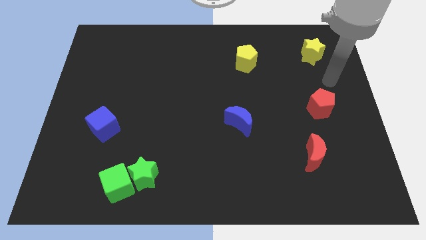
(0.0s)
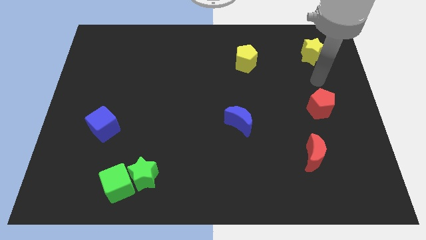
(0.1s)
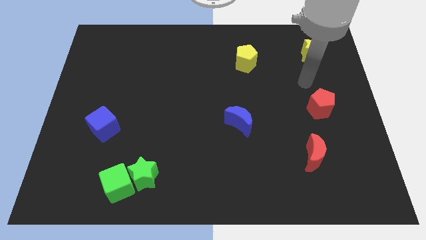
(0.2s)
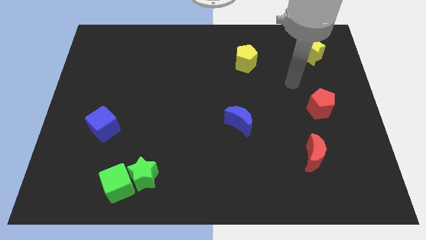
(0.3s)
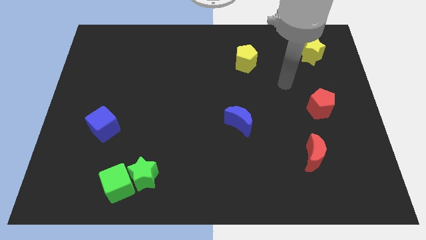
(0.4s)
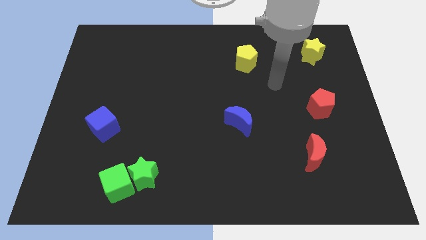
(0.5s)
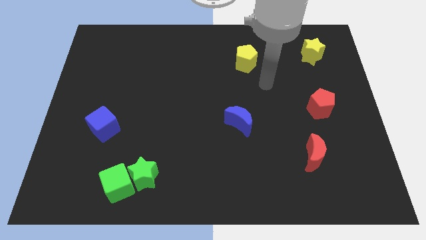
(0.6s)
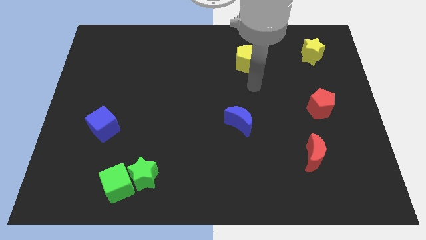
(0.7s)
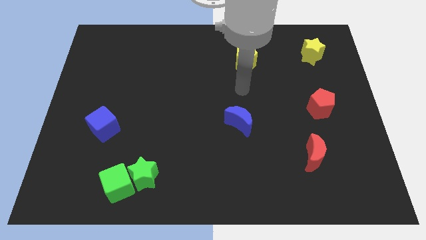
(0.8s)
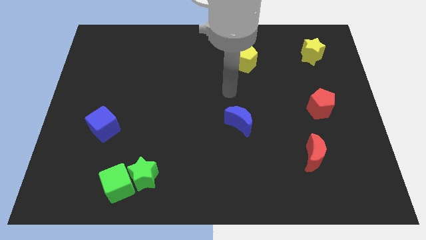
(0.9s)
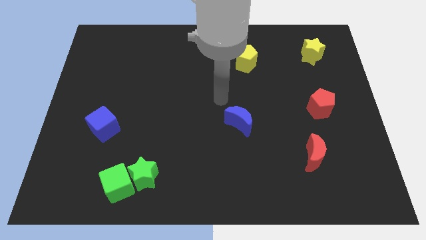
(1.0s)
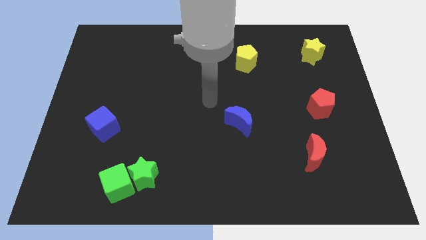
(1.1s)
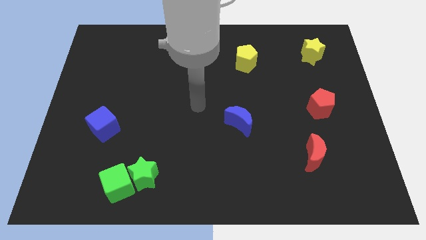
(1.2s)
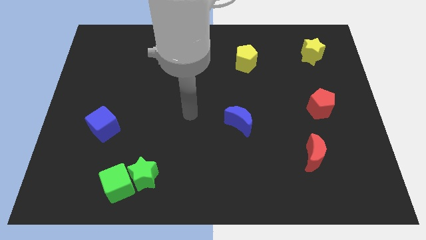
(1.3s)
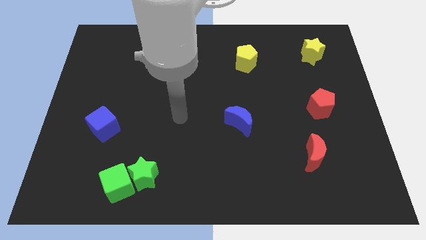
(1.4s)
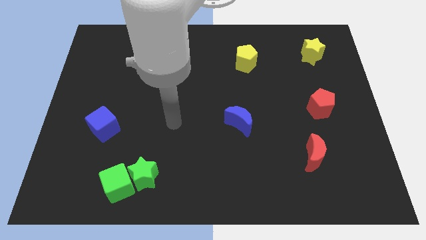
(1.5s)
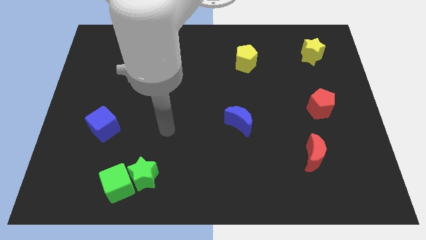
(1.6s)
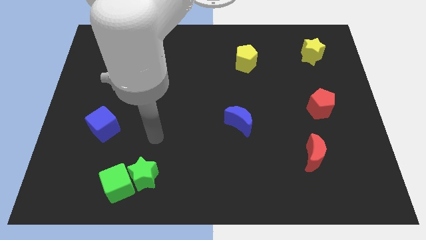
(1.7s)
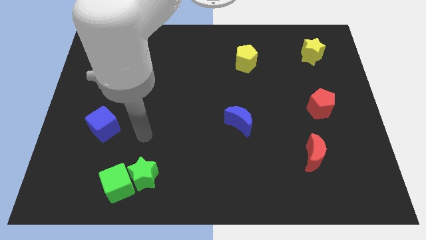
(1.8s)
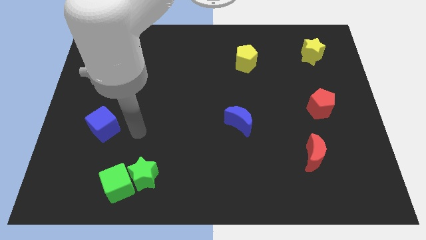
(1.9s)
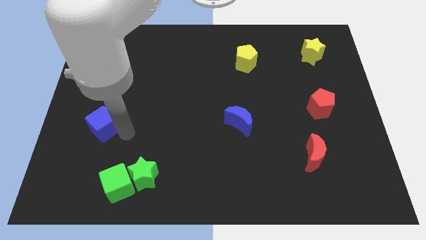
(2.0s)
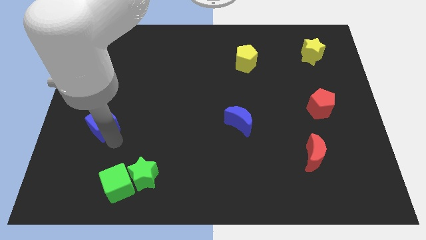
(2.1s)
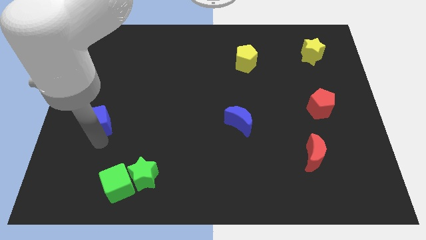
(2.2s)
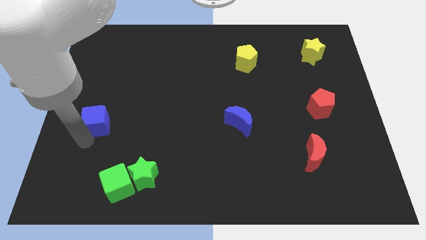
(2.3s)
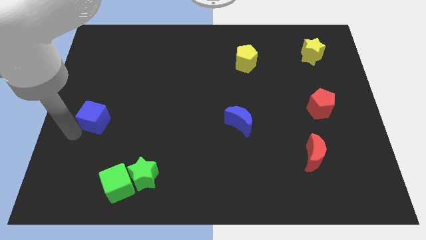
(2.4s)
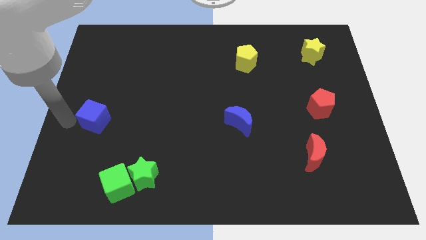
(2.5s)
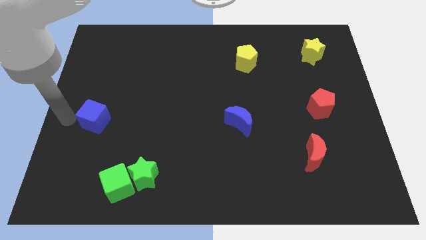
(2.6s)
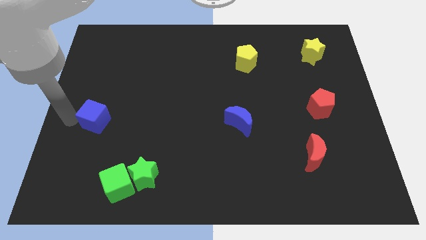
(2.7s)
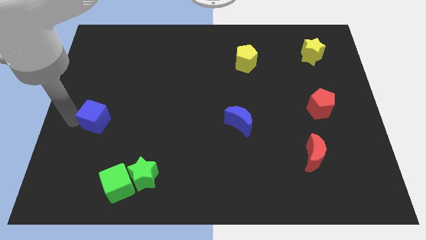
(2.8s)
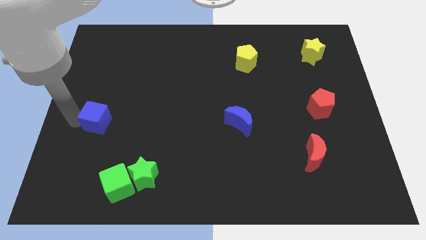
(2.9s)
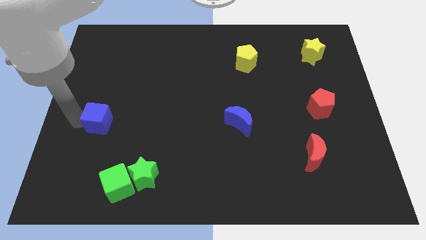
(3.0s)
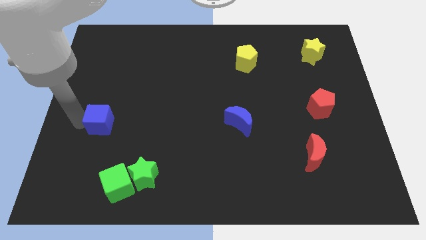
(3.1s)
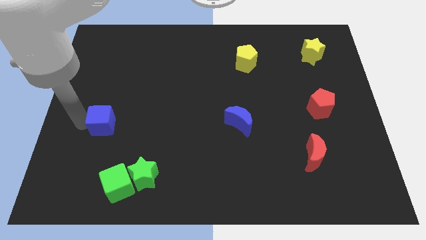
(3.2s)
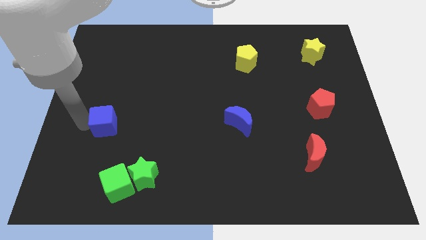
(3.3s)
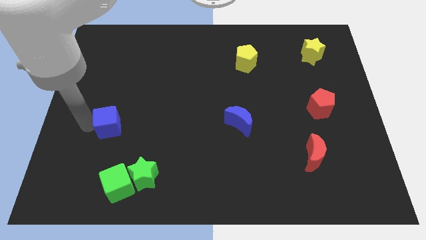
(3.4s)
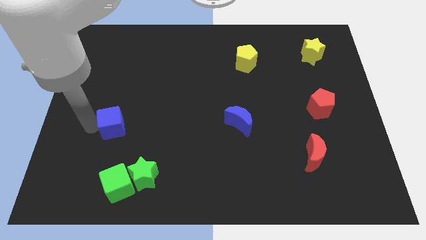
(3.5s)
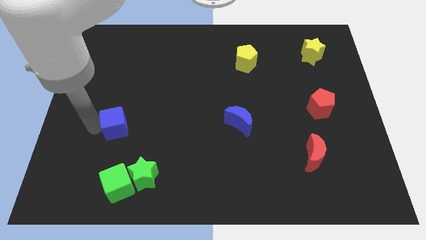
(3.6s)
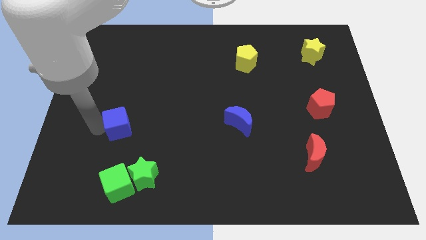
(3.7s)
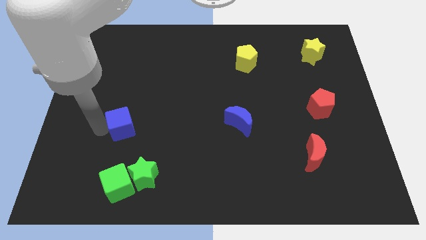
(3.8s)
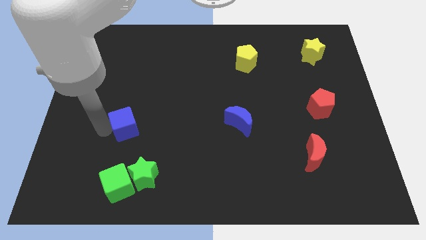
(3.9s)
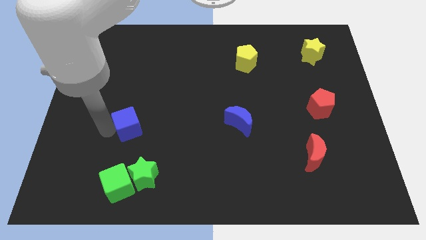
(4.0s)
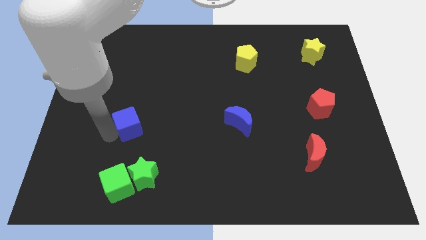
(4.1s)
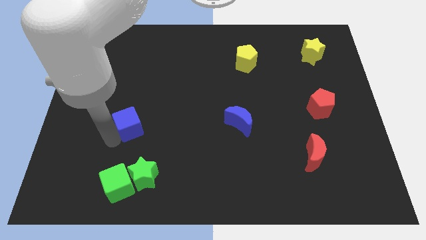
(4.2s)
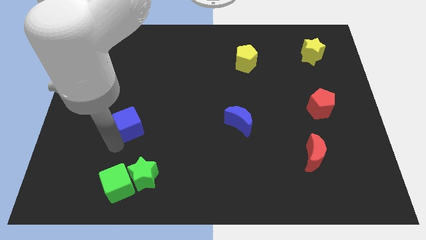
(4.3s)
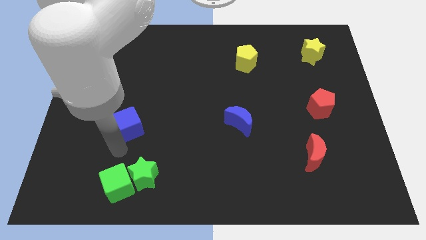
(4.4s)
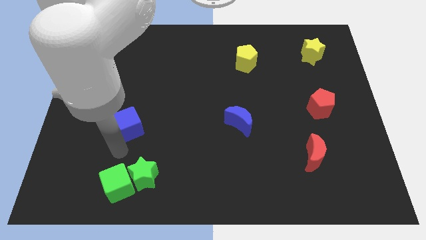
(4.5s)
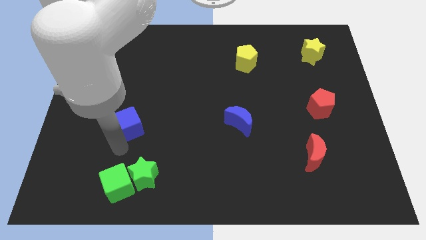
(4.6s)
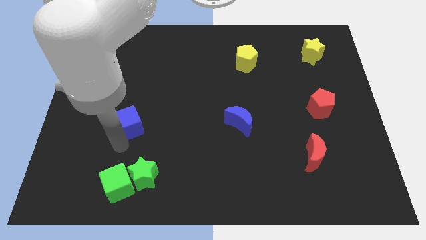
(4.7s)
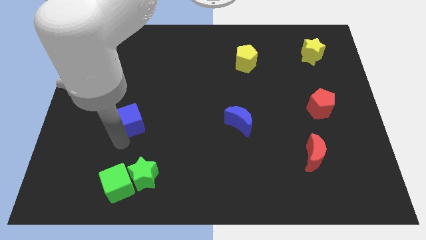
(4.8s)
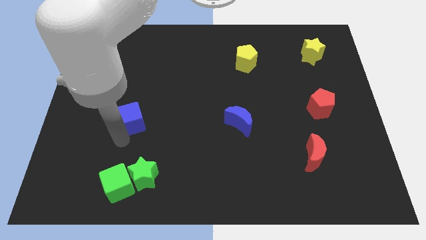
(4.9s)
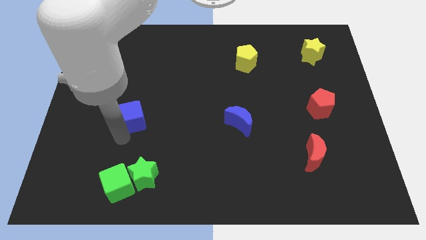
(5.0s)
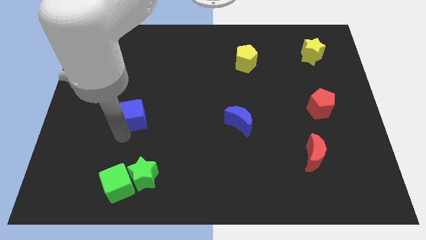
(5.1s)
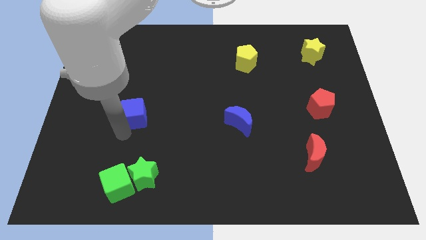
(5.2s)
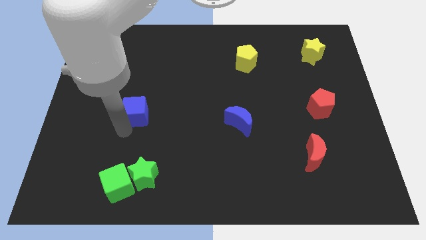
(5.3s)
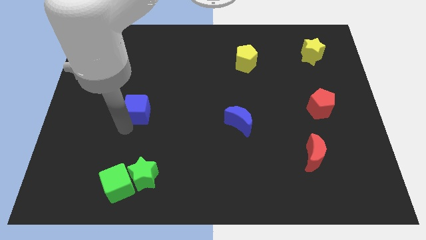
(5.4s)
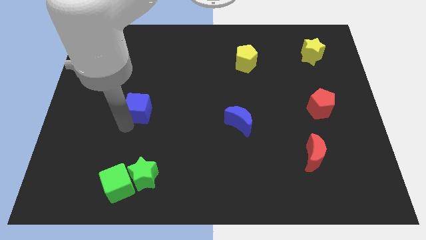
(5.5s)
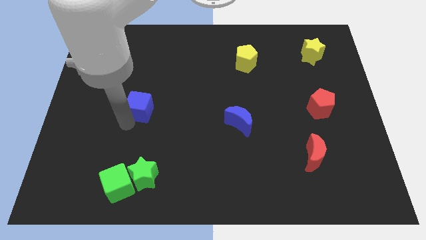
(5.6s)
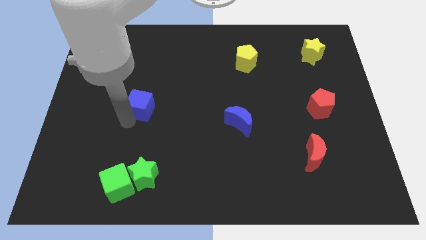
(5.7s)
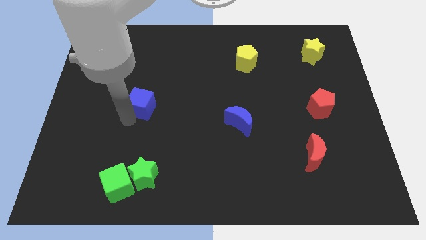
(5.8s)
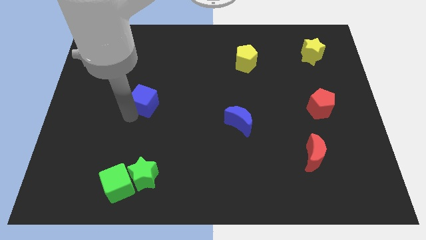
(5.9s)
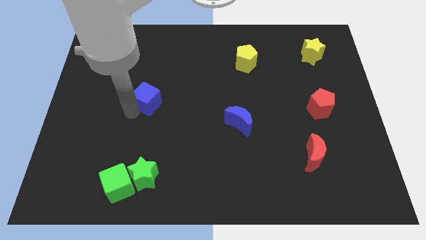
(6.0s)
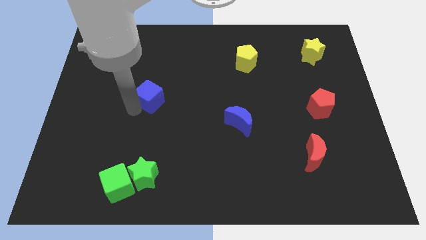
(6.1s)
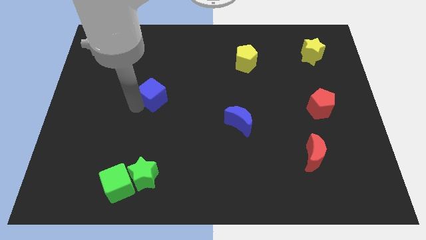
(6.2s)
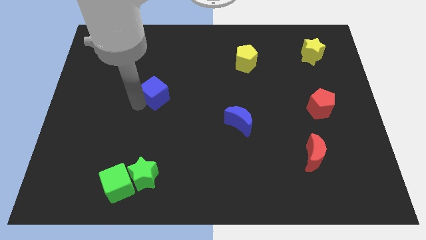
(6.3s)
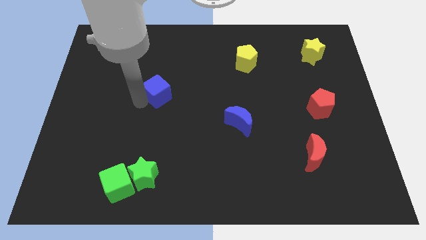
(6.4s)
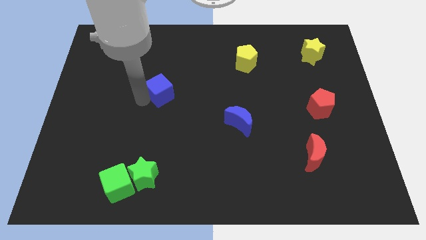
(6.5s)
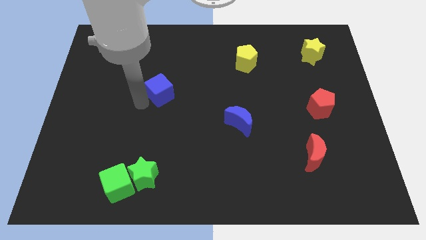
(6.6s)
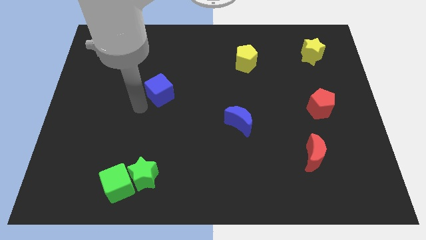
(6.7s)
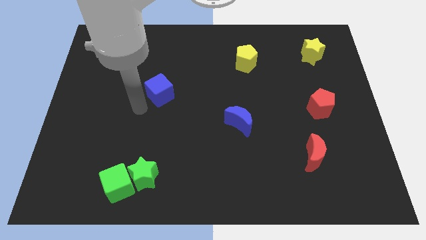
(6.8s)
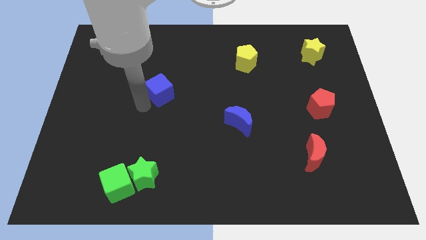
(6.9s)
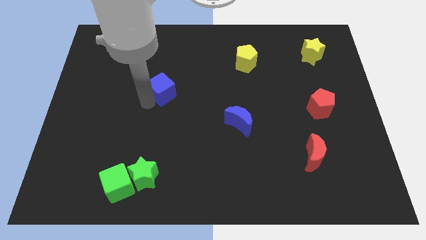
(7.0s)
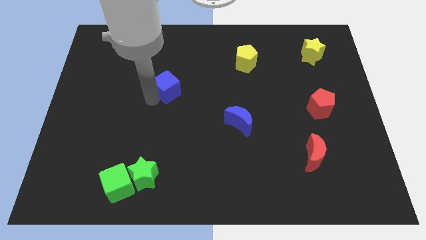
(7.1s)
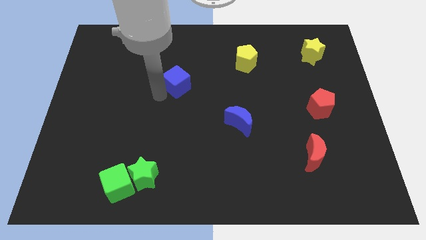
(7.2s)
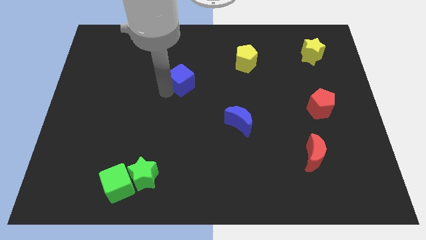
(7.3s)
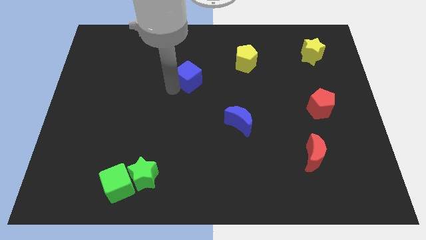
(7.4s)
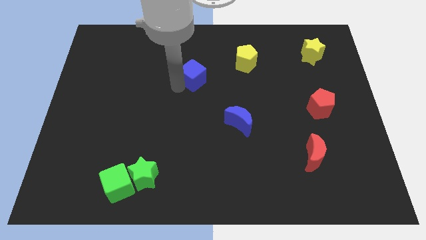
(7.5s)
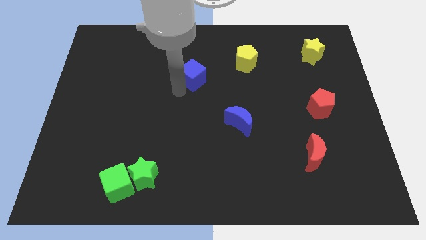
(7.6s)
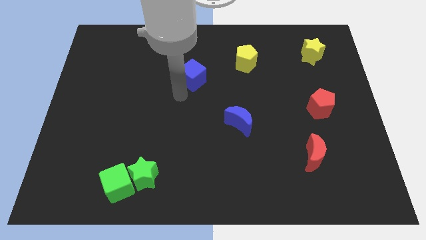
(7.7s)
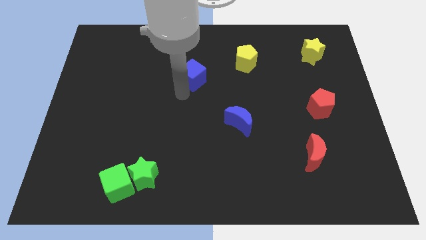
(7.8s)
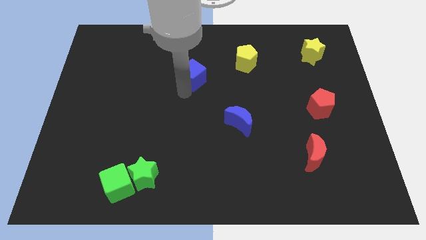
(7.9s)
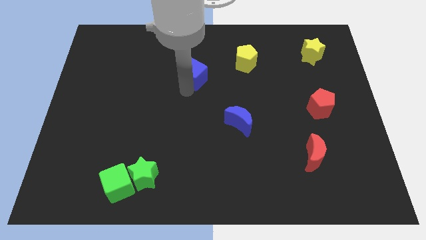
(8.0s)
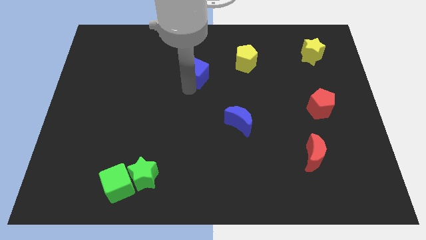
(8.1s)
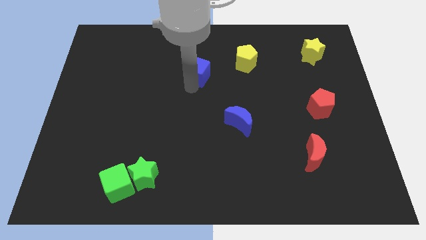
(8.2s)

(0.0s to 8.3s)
slide the blue cube left of the yellow pentagon
